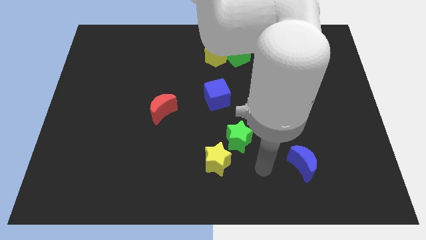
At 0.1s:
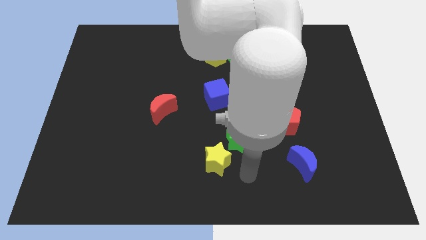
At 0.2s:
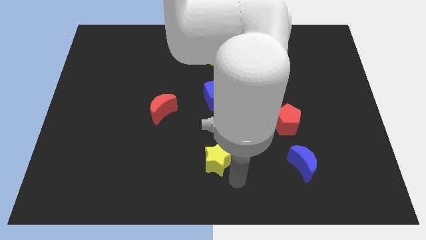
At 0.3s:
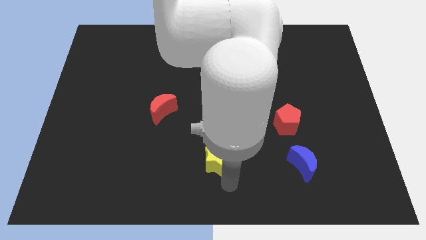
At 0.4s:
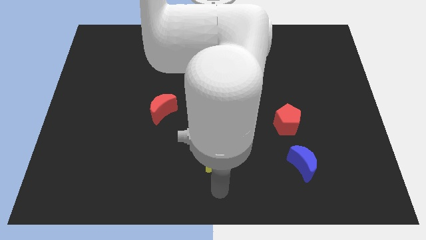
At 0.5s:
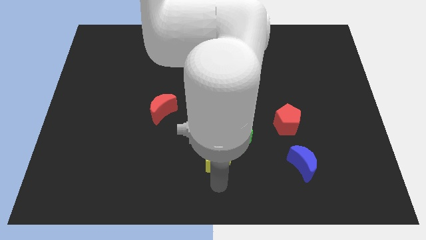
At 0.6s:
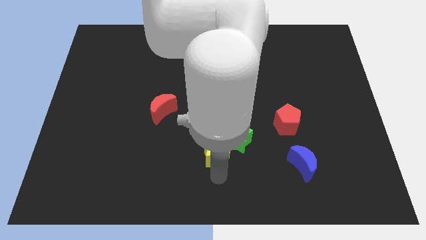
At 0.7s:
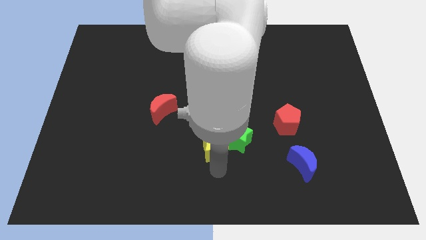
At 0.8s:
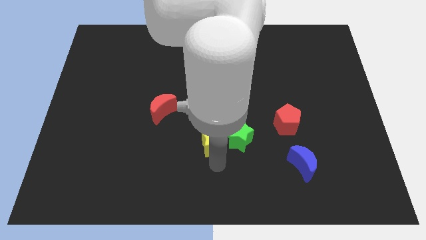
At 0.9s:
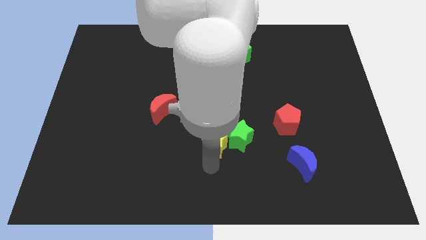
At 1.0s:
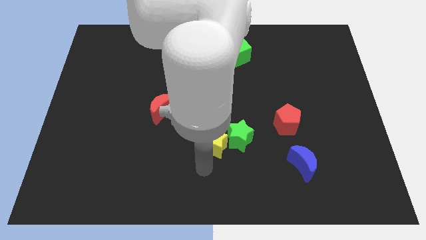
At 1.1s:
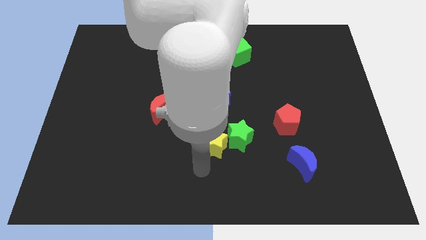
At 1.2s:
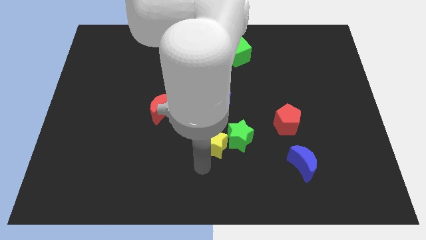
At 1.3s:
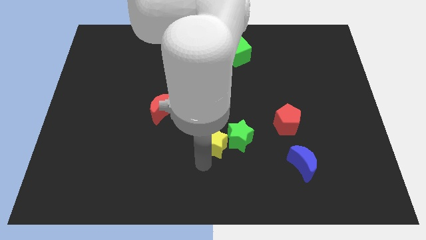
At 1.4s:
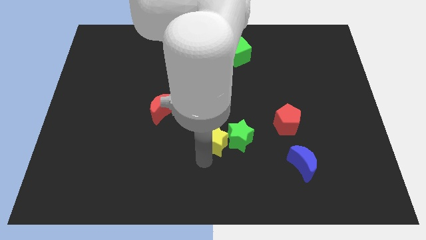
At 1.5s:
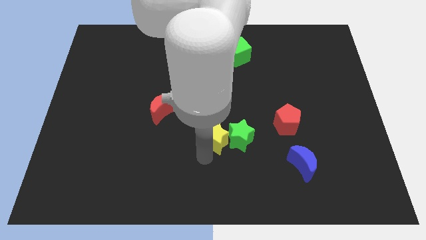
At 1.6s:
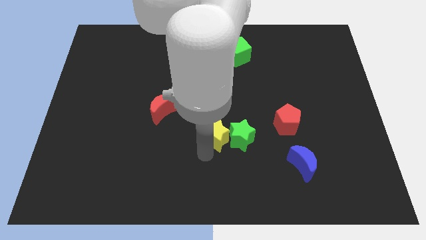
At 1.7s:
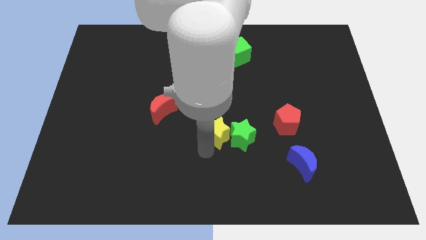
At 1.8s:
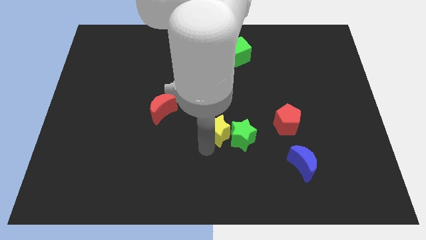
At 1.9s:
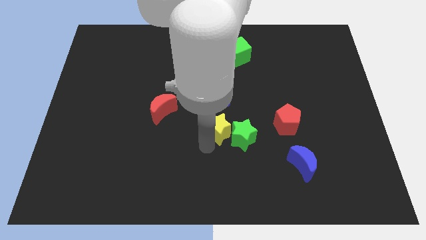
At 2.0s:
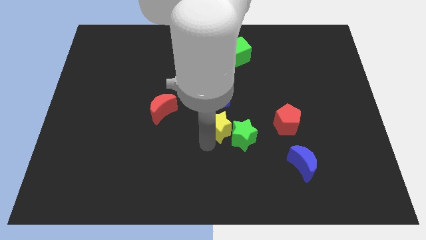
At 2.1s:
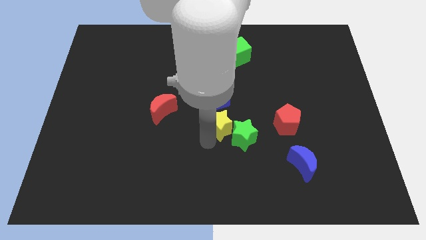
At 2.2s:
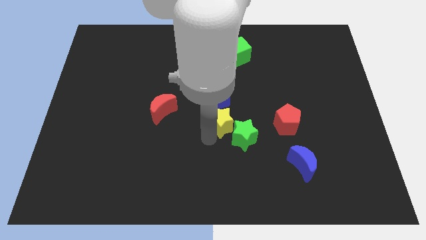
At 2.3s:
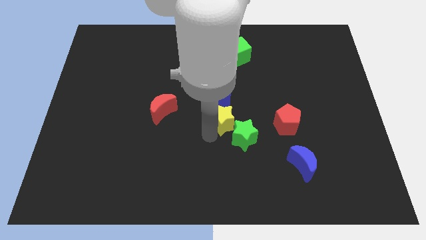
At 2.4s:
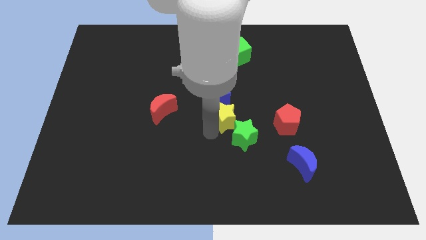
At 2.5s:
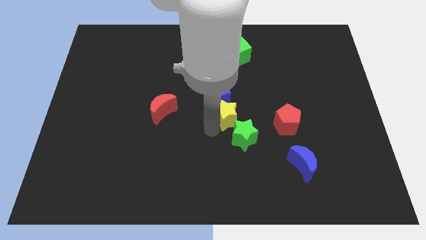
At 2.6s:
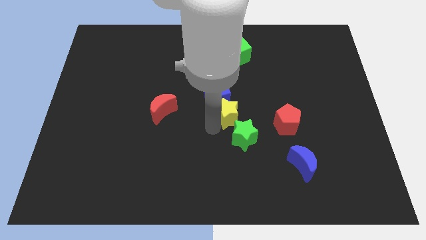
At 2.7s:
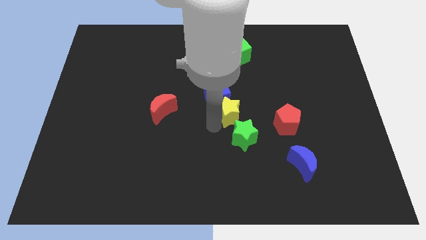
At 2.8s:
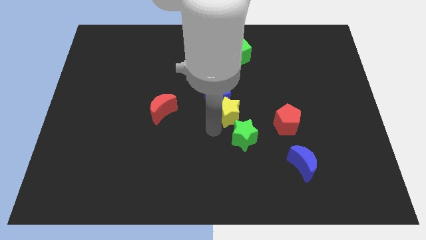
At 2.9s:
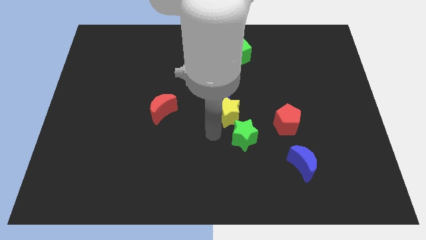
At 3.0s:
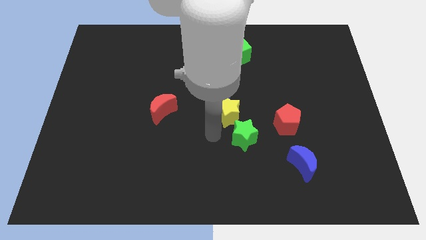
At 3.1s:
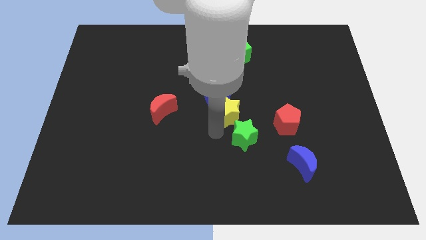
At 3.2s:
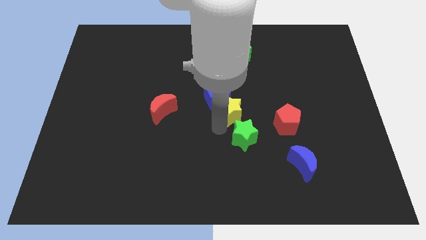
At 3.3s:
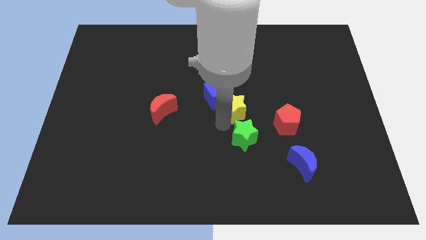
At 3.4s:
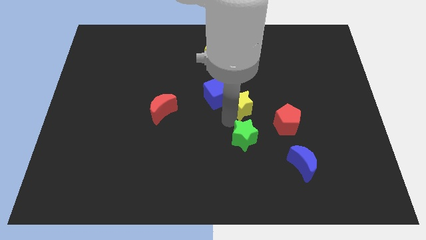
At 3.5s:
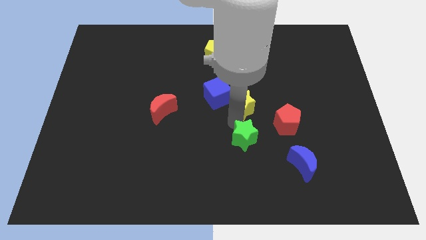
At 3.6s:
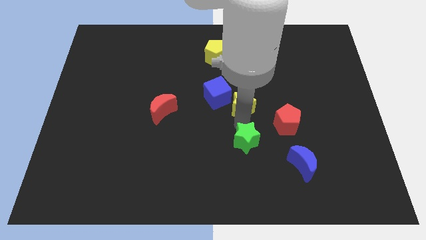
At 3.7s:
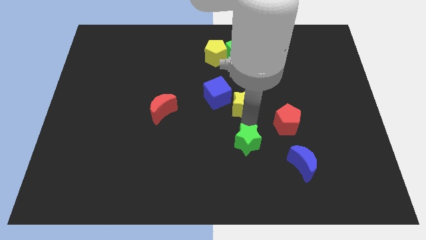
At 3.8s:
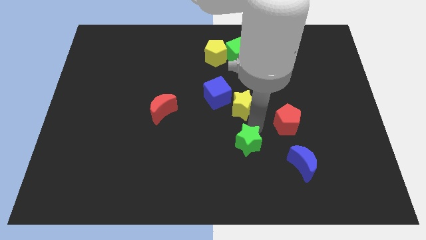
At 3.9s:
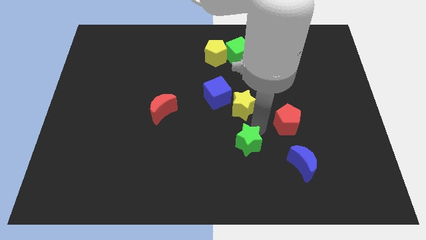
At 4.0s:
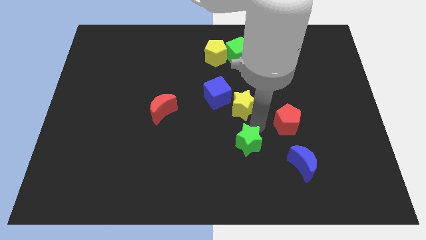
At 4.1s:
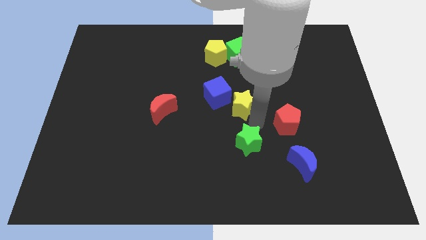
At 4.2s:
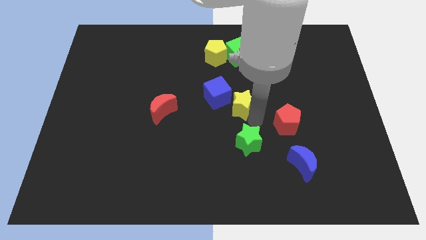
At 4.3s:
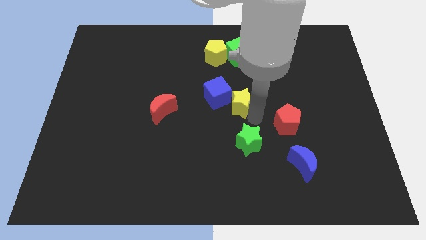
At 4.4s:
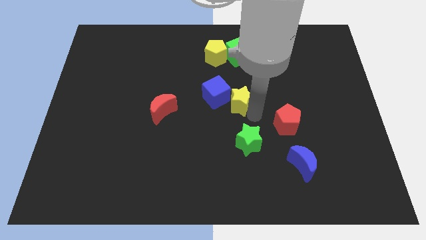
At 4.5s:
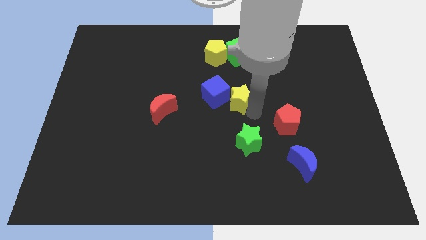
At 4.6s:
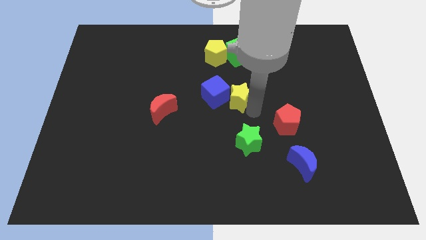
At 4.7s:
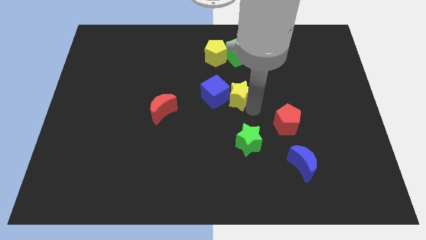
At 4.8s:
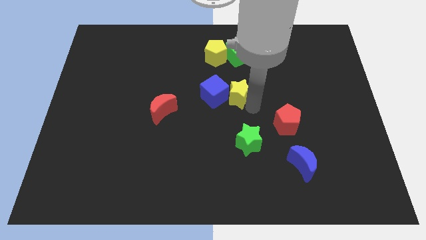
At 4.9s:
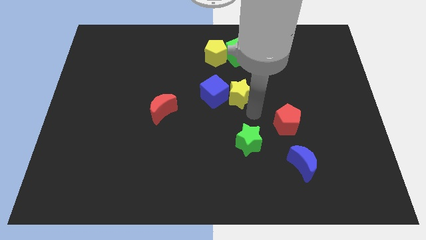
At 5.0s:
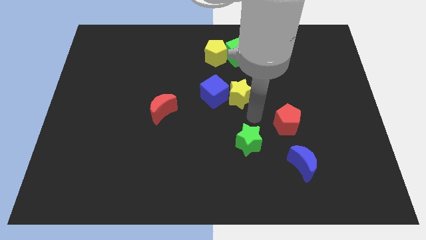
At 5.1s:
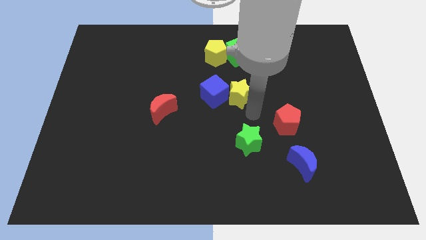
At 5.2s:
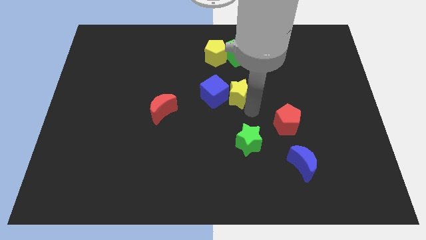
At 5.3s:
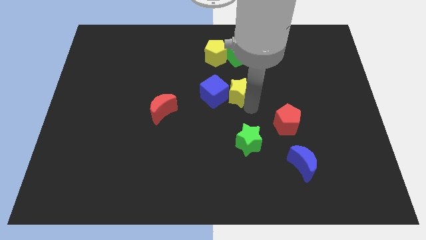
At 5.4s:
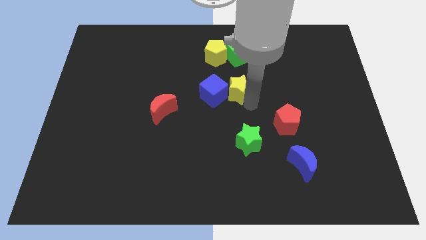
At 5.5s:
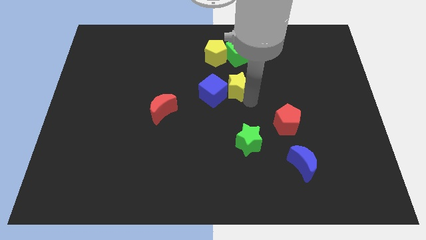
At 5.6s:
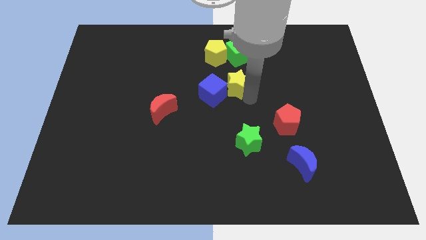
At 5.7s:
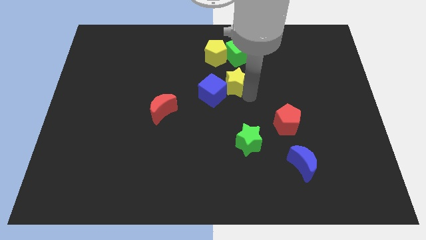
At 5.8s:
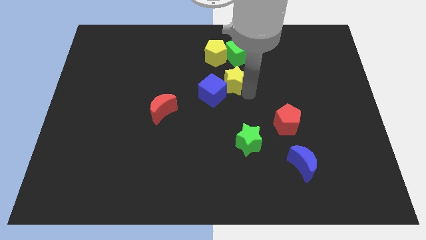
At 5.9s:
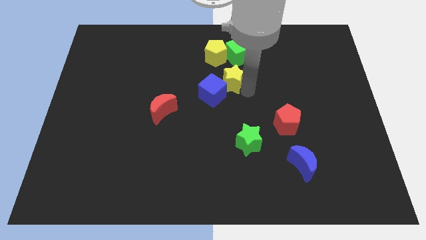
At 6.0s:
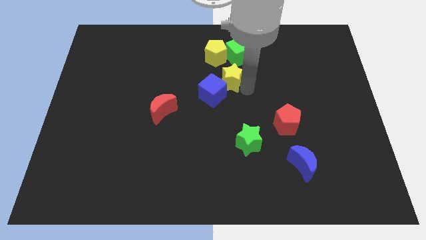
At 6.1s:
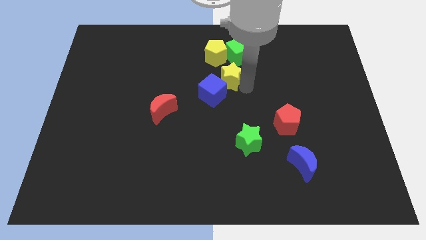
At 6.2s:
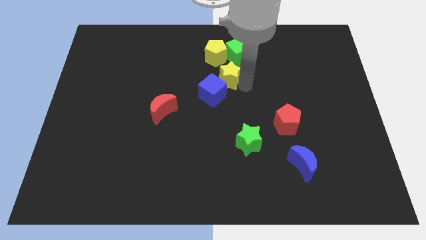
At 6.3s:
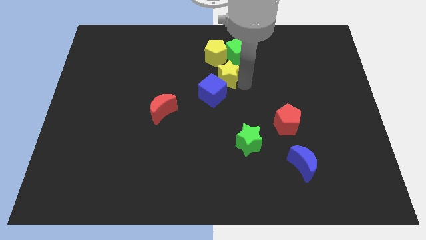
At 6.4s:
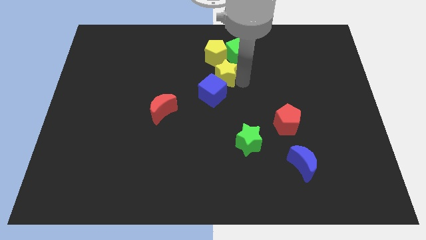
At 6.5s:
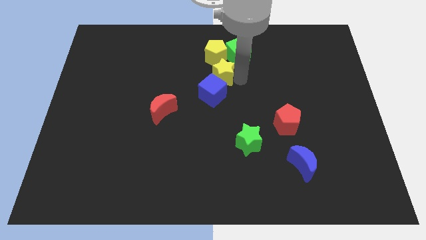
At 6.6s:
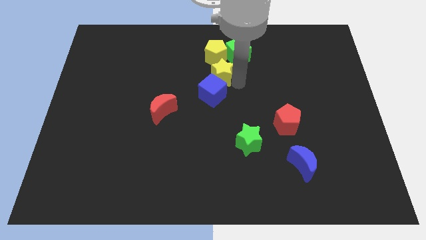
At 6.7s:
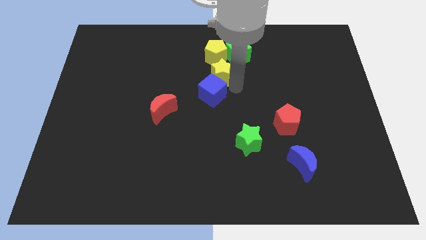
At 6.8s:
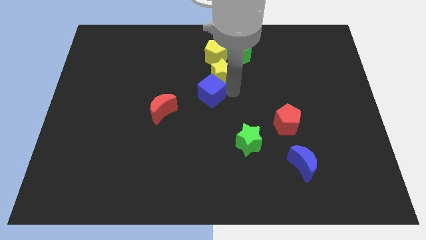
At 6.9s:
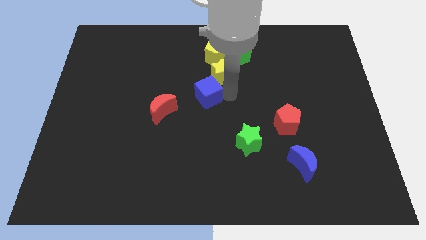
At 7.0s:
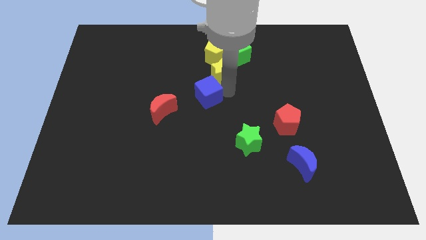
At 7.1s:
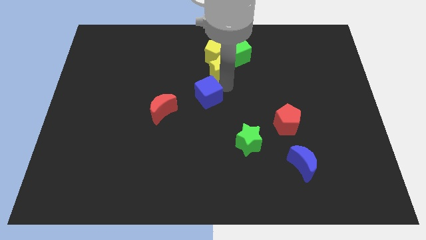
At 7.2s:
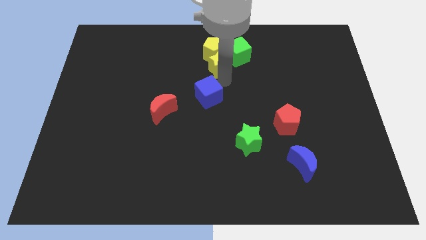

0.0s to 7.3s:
push the yellow star to the yellow pentagon

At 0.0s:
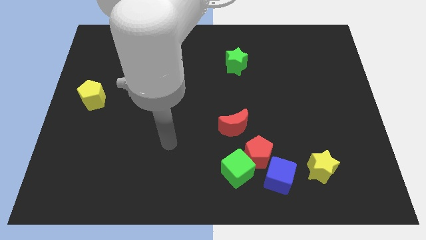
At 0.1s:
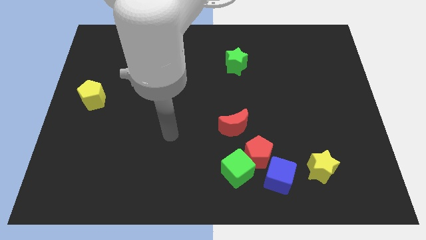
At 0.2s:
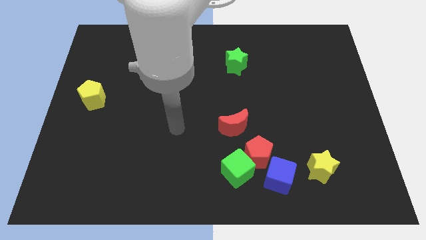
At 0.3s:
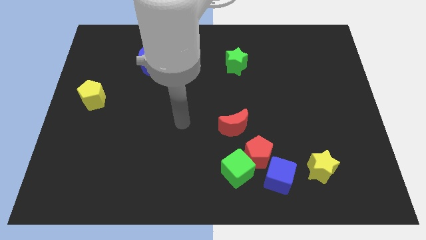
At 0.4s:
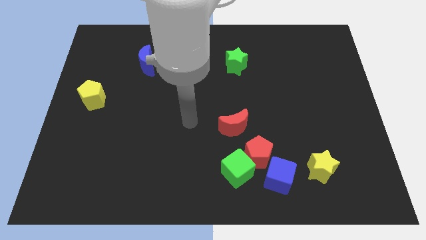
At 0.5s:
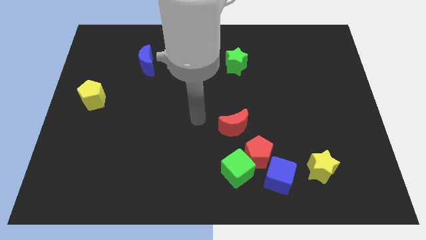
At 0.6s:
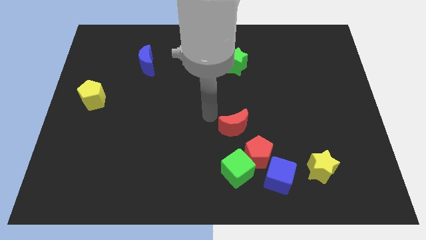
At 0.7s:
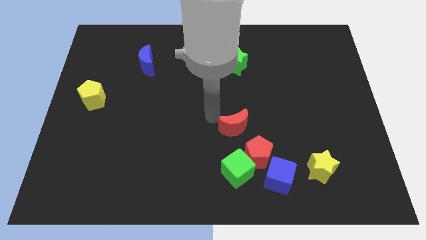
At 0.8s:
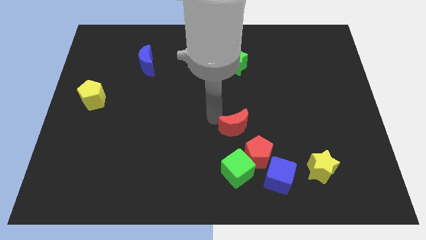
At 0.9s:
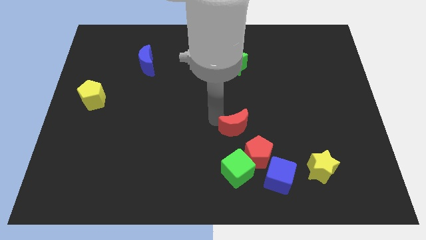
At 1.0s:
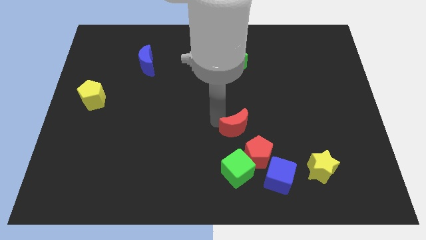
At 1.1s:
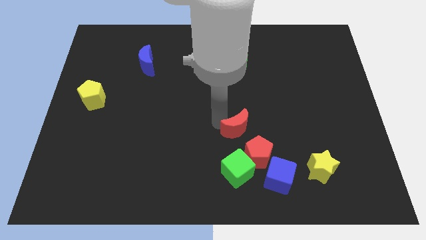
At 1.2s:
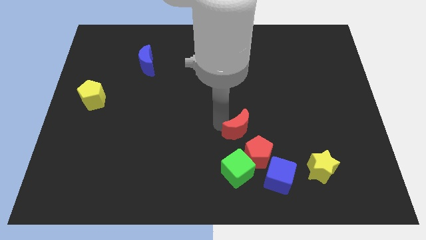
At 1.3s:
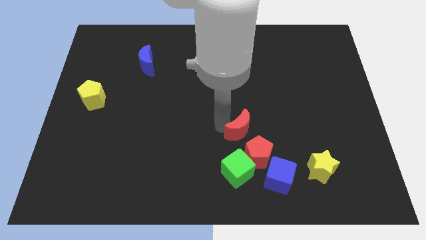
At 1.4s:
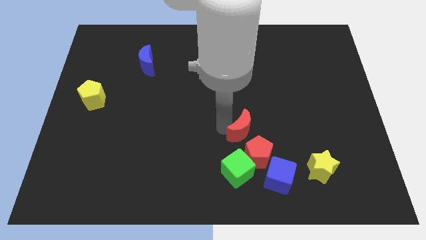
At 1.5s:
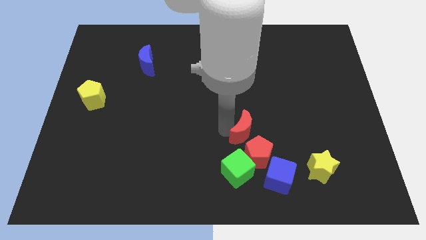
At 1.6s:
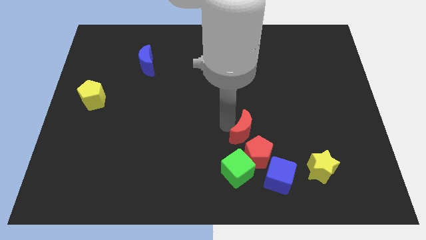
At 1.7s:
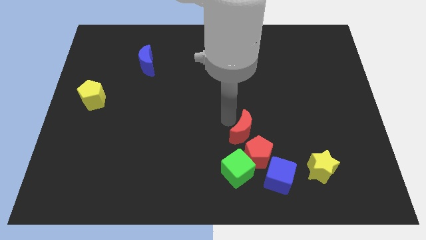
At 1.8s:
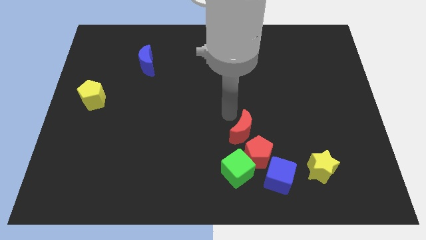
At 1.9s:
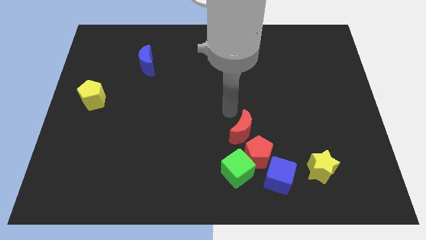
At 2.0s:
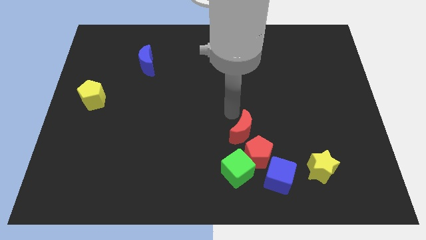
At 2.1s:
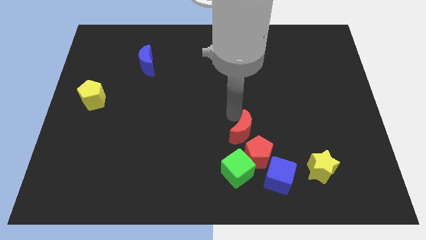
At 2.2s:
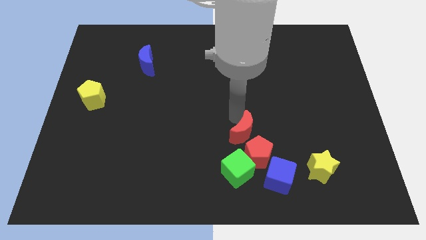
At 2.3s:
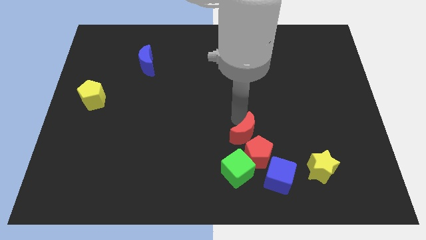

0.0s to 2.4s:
move the red moon close to the red pentagon
